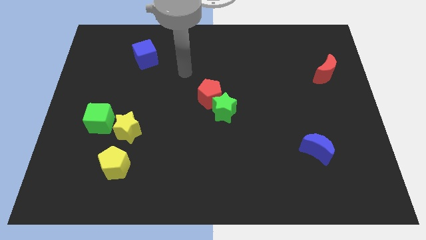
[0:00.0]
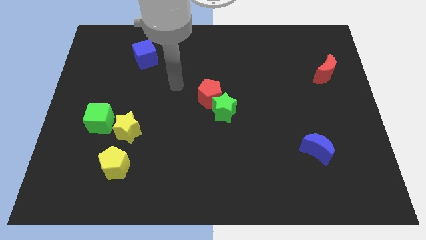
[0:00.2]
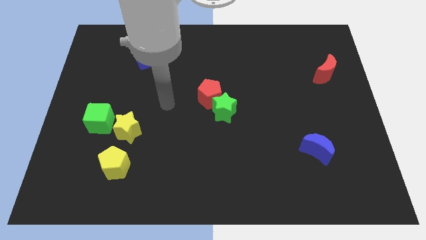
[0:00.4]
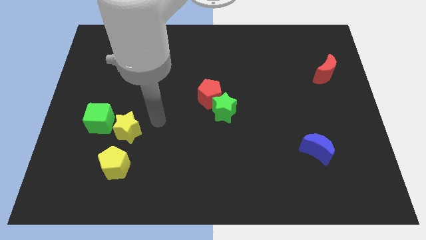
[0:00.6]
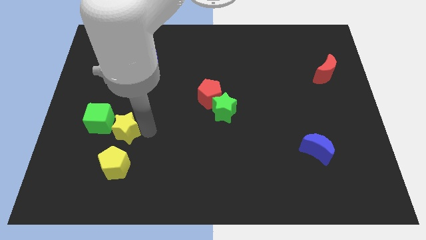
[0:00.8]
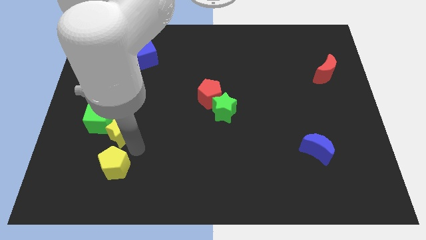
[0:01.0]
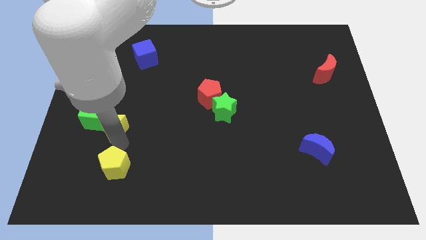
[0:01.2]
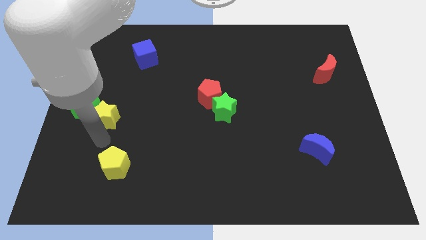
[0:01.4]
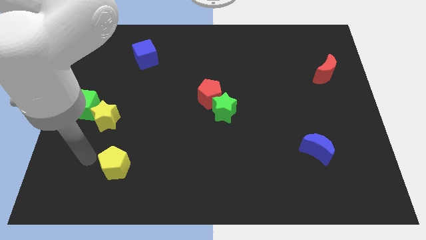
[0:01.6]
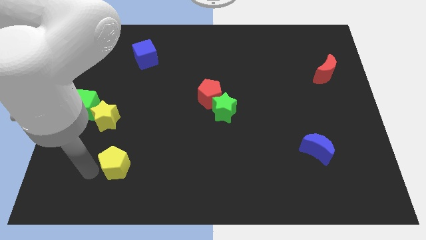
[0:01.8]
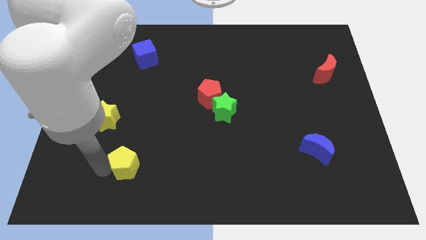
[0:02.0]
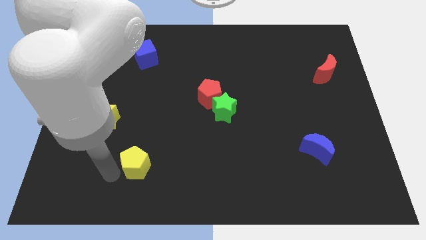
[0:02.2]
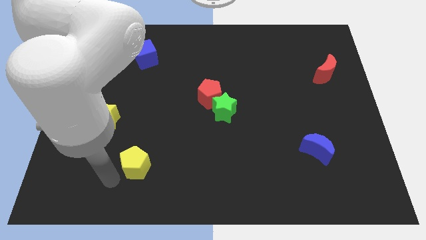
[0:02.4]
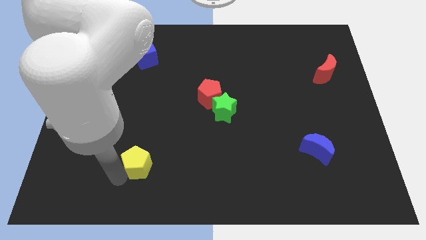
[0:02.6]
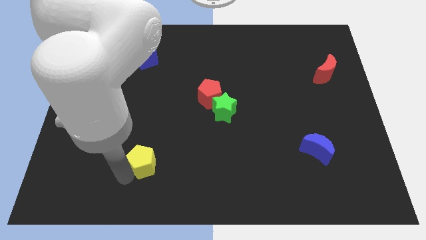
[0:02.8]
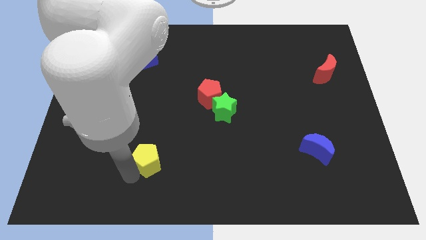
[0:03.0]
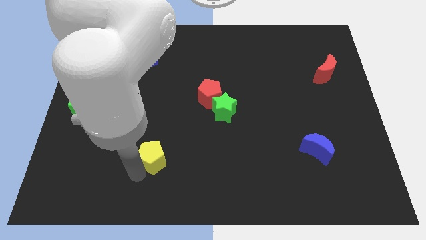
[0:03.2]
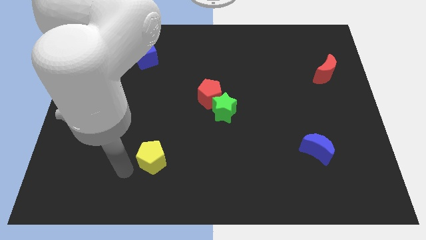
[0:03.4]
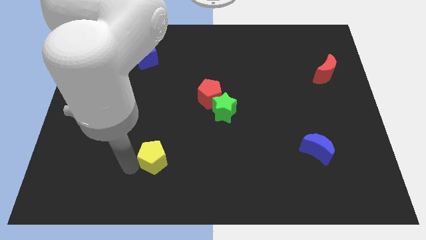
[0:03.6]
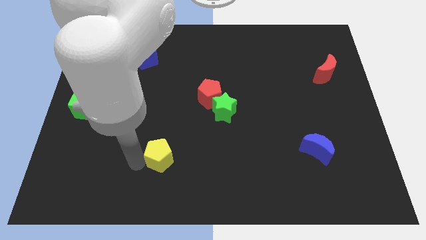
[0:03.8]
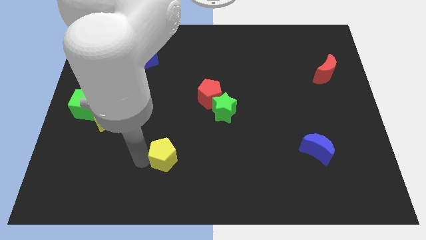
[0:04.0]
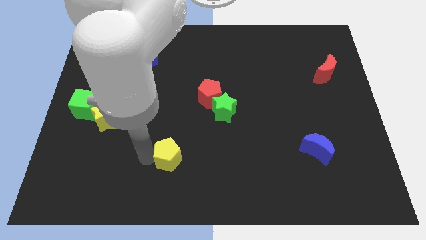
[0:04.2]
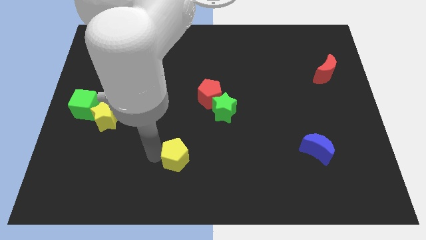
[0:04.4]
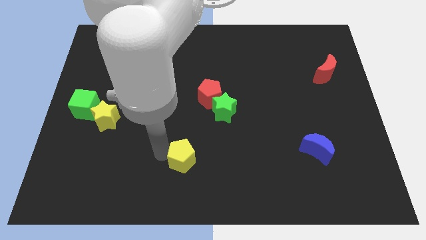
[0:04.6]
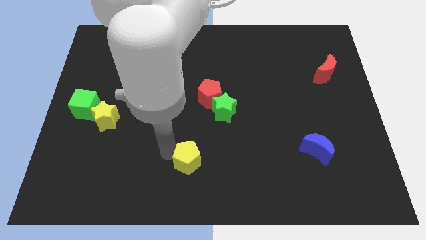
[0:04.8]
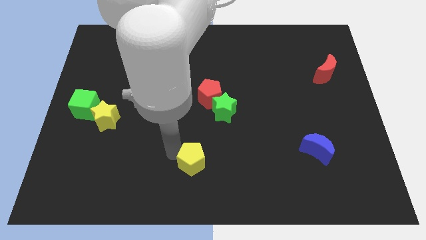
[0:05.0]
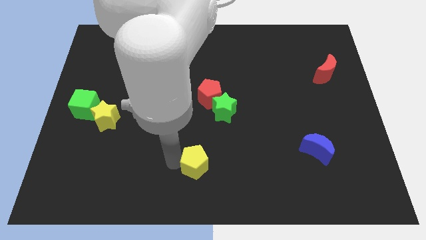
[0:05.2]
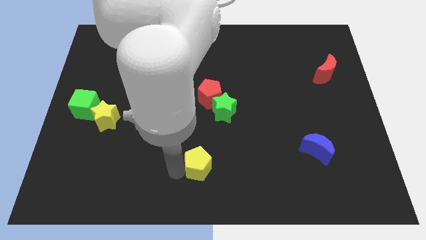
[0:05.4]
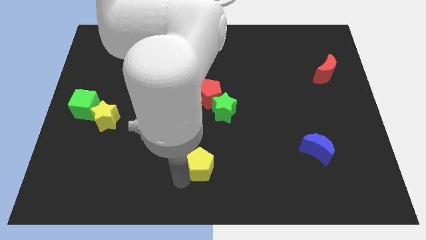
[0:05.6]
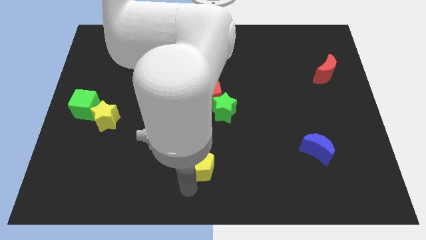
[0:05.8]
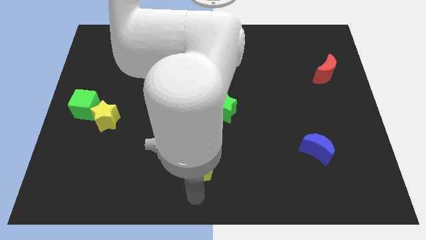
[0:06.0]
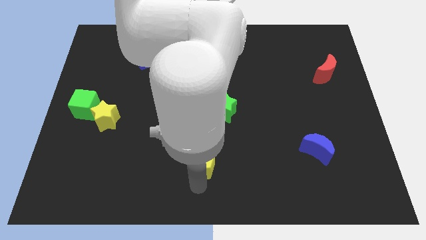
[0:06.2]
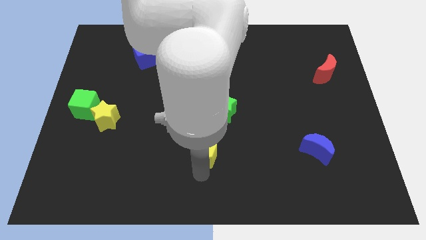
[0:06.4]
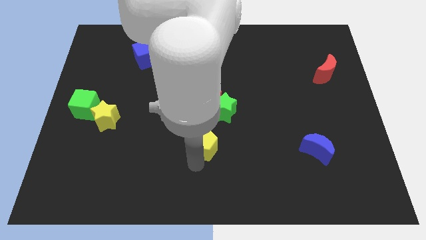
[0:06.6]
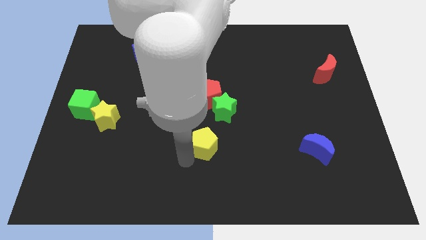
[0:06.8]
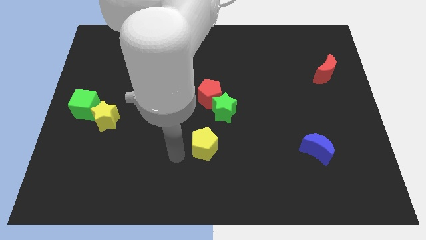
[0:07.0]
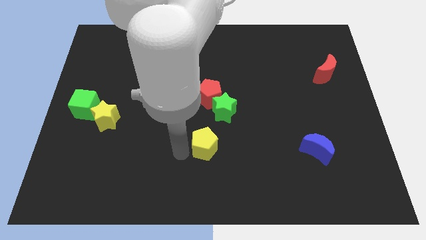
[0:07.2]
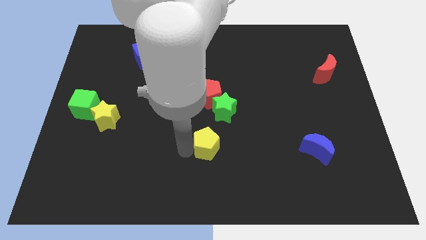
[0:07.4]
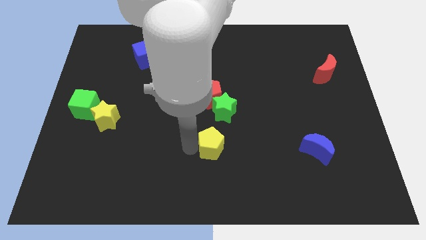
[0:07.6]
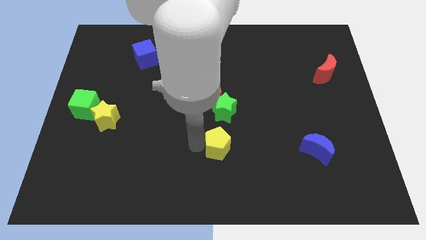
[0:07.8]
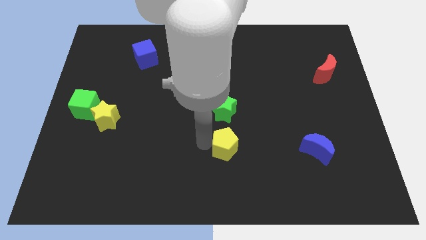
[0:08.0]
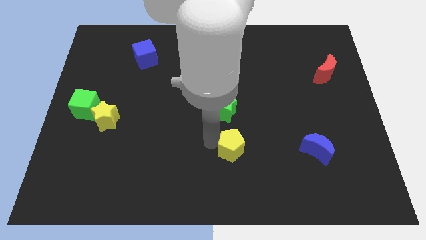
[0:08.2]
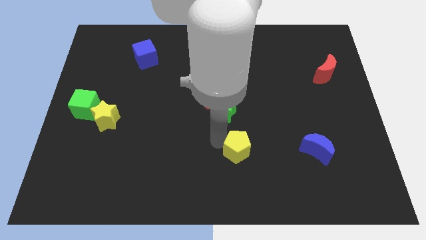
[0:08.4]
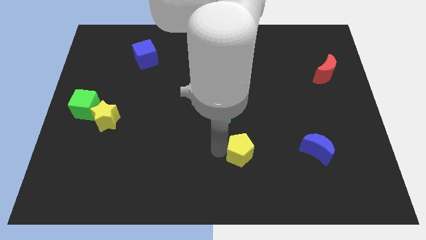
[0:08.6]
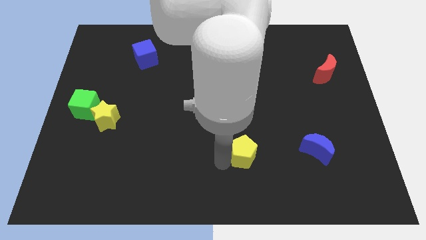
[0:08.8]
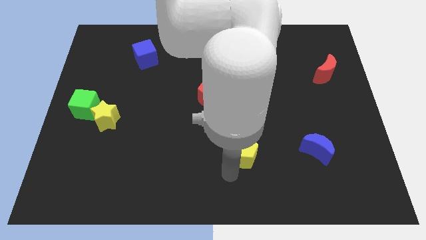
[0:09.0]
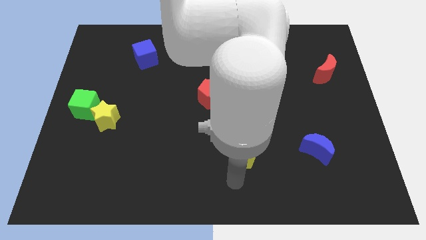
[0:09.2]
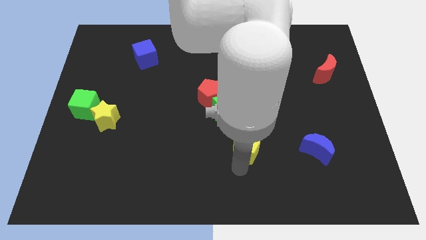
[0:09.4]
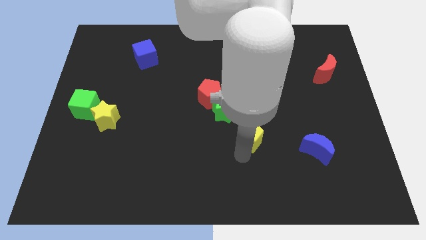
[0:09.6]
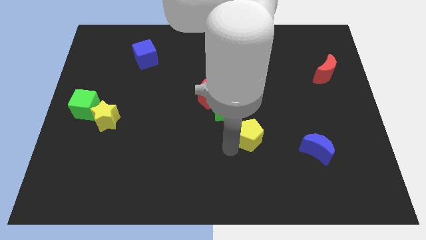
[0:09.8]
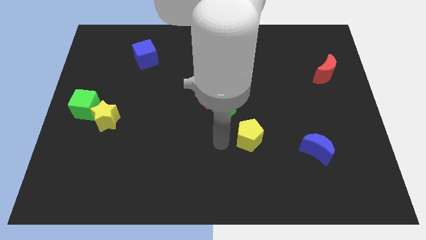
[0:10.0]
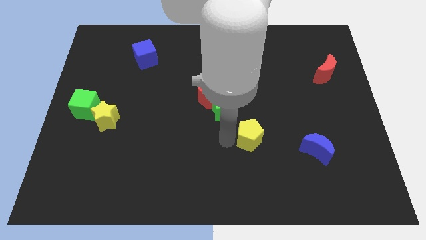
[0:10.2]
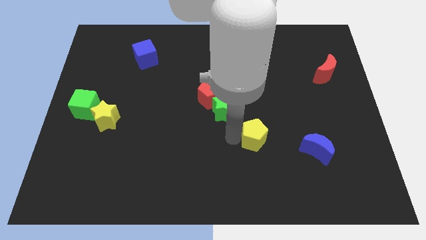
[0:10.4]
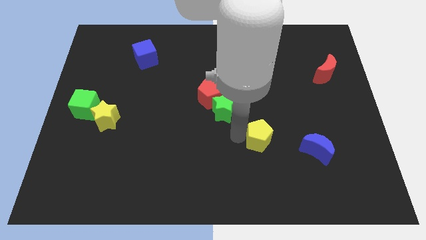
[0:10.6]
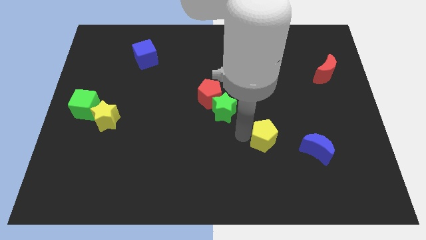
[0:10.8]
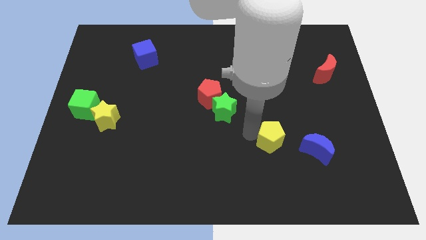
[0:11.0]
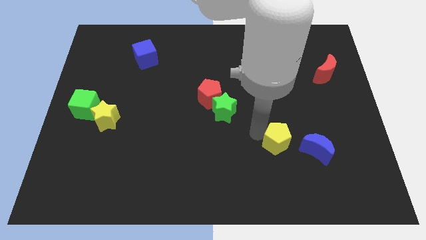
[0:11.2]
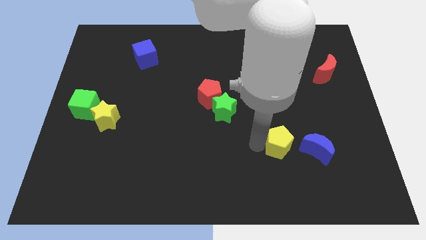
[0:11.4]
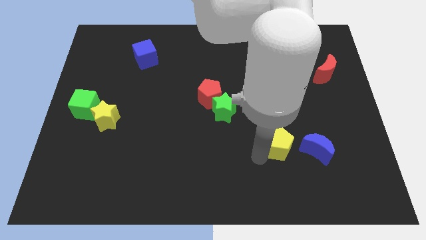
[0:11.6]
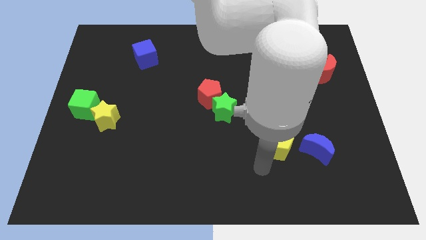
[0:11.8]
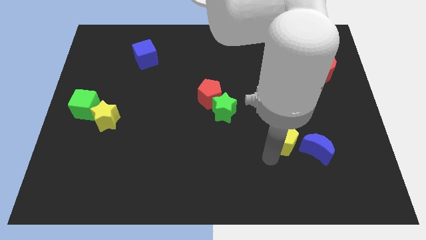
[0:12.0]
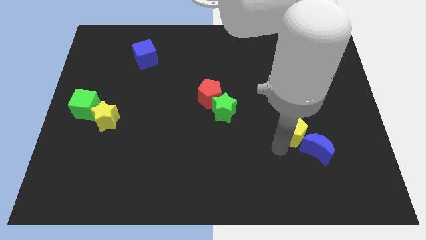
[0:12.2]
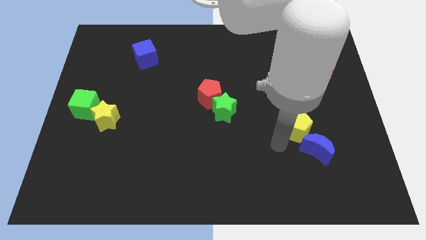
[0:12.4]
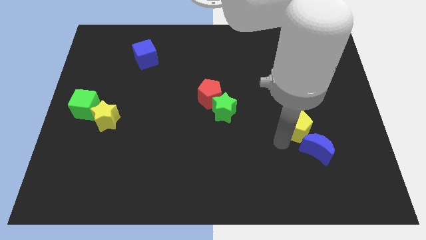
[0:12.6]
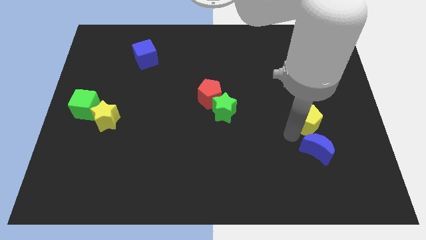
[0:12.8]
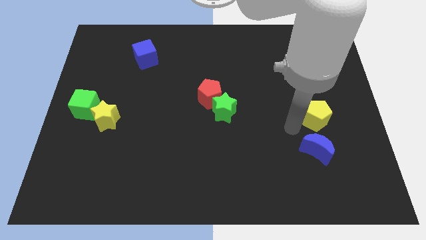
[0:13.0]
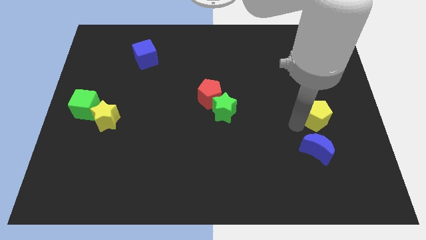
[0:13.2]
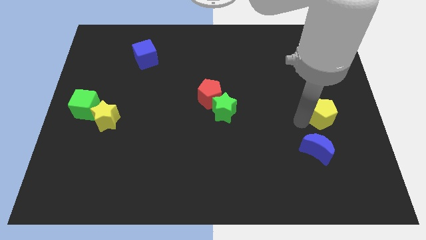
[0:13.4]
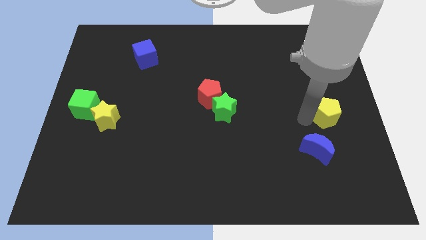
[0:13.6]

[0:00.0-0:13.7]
move the yellow pentagon to the right side of the board
